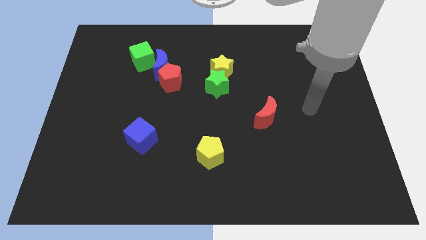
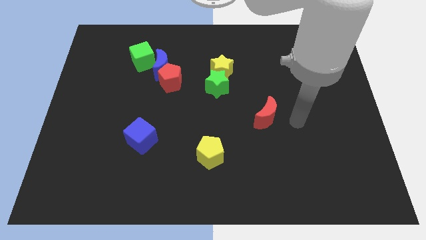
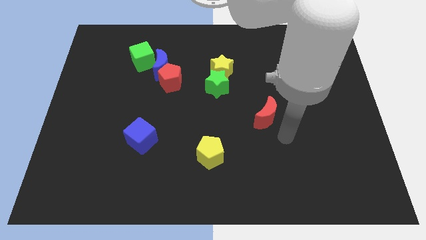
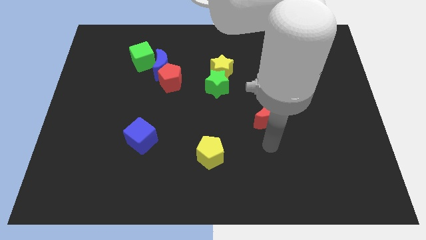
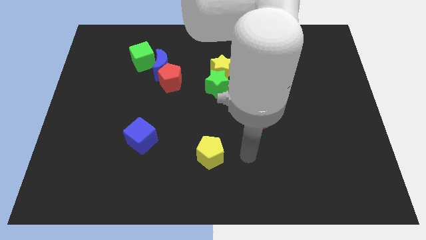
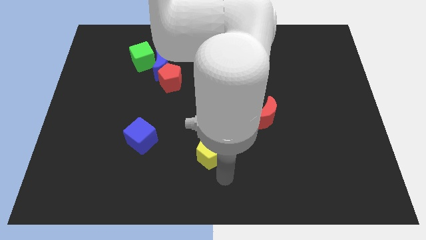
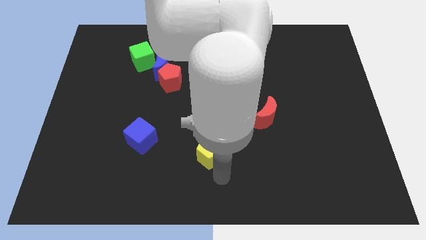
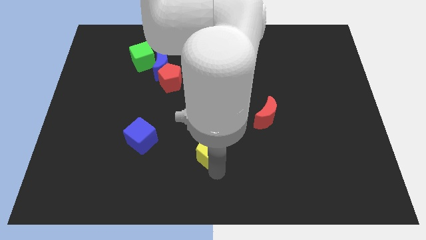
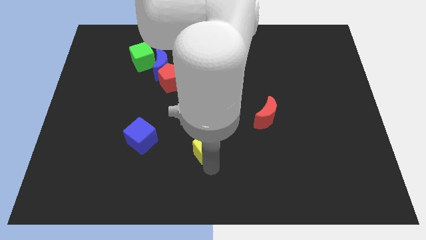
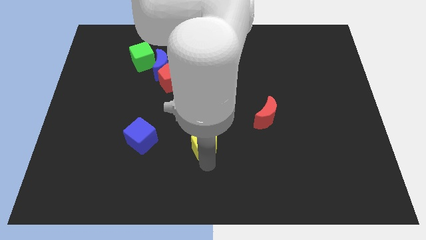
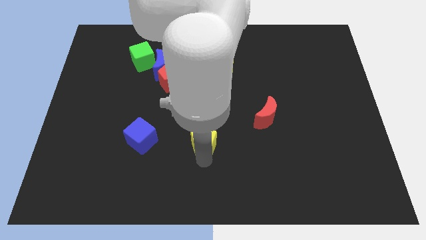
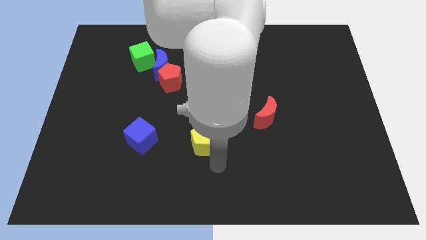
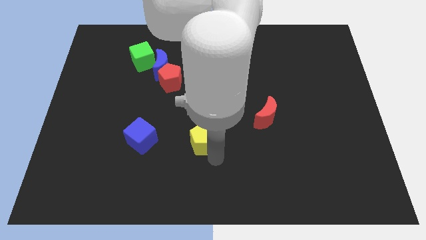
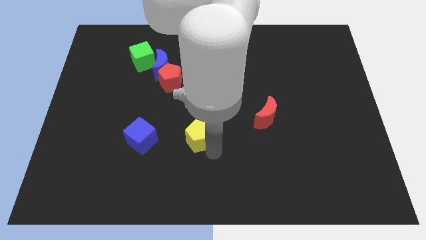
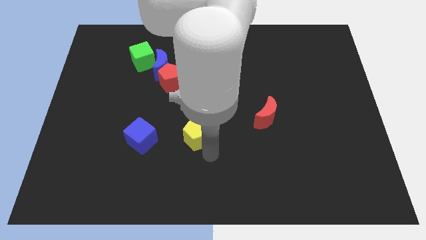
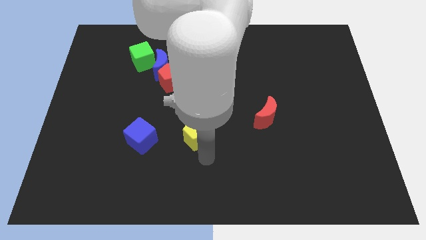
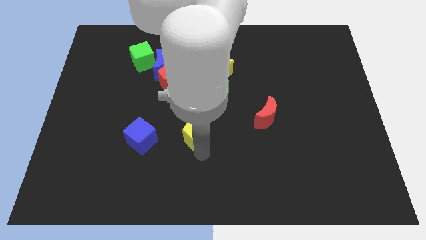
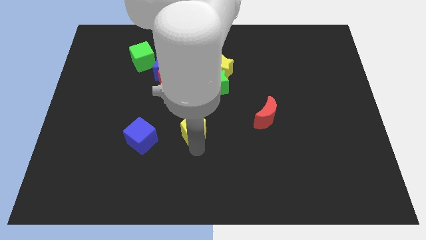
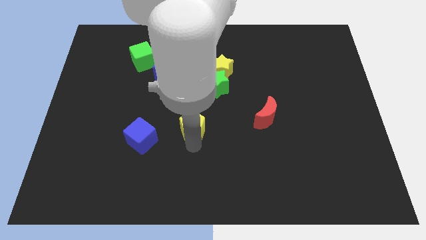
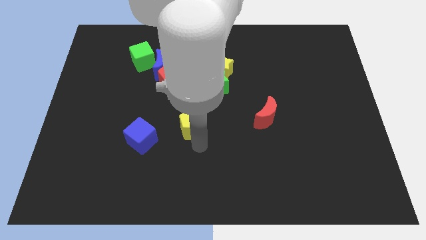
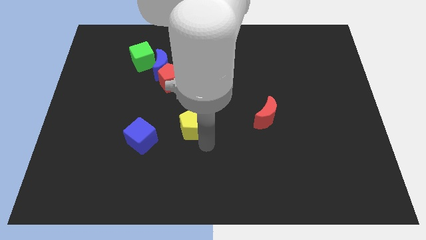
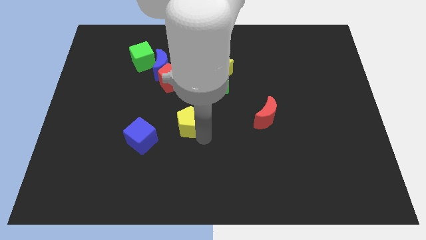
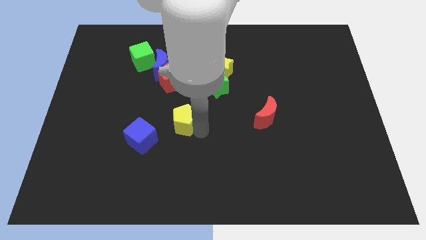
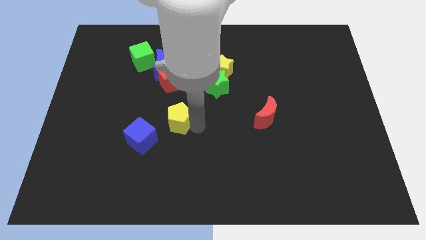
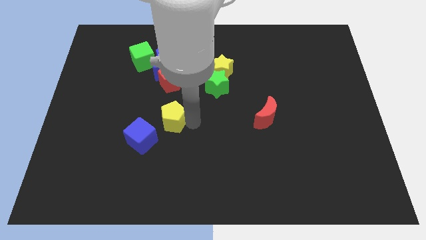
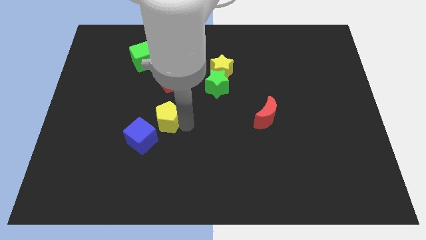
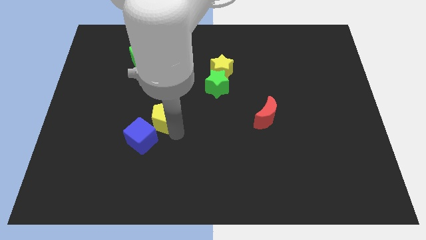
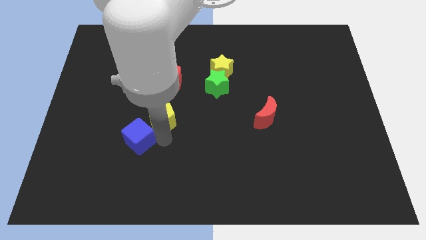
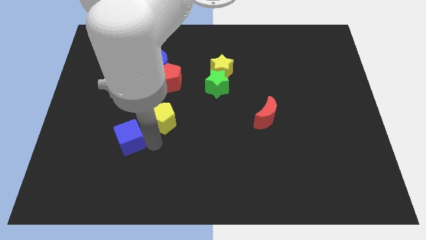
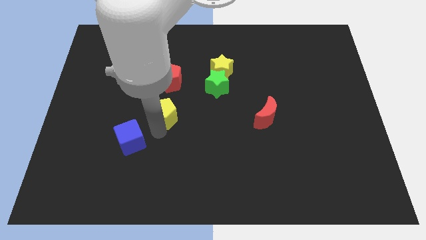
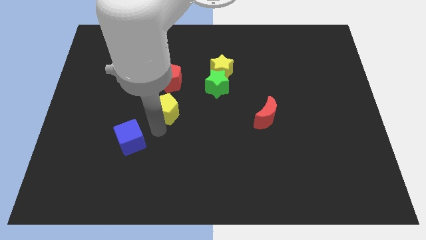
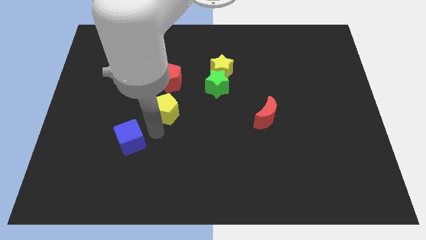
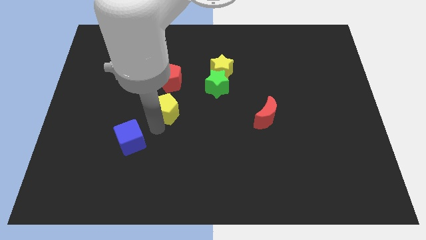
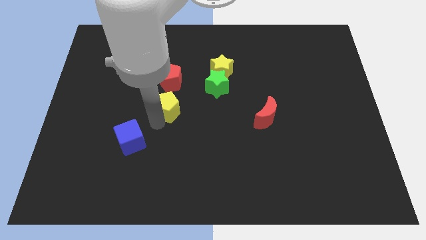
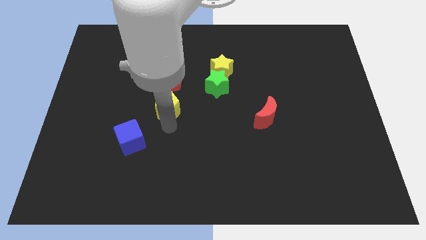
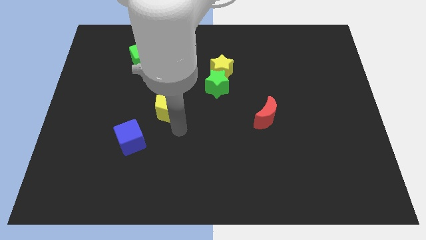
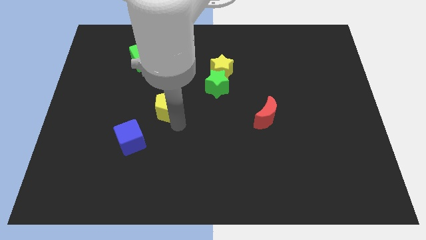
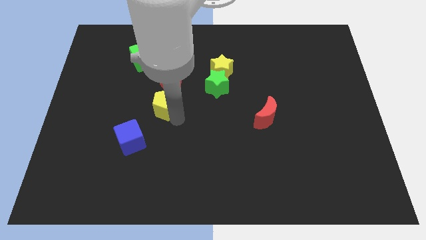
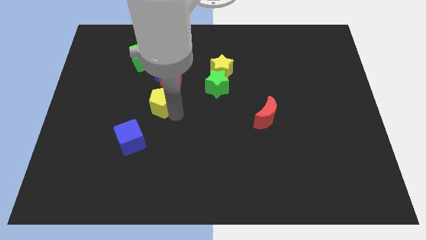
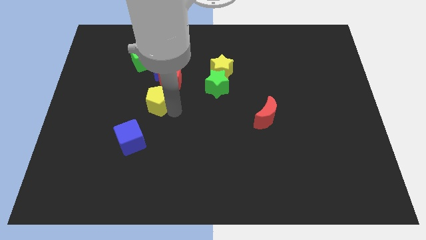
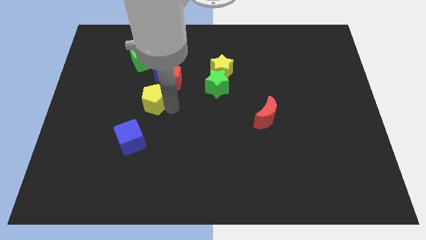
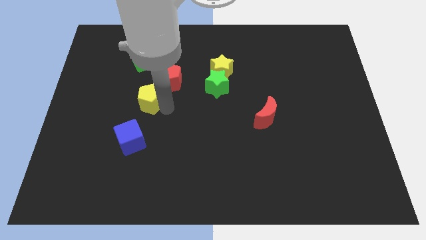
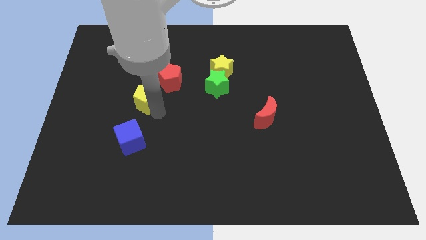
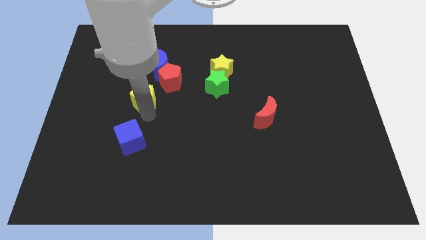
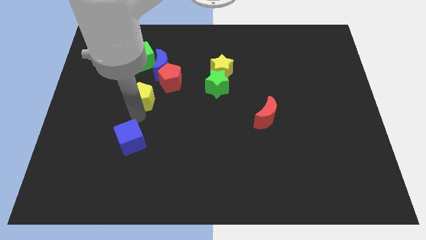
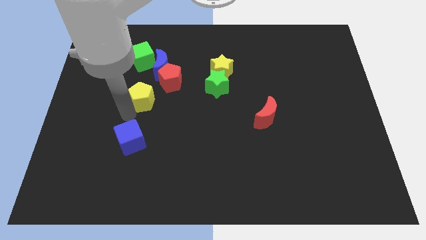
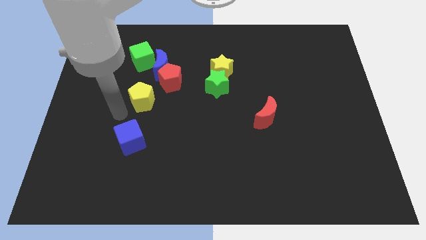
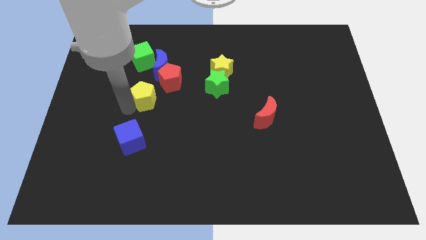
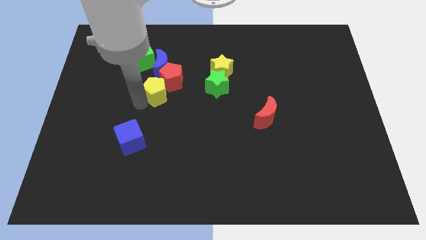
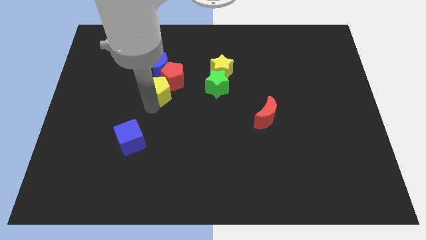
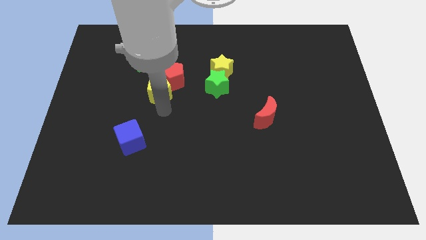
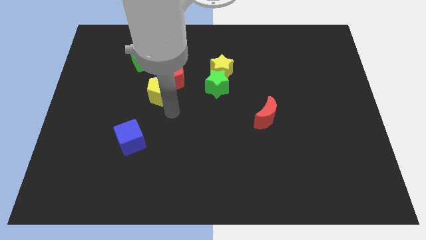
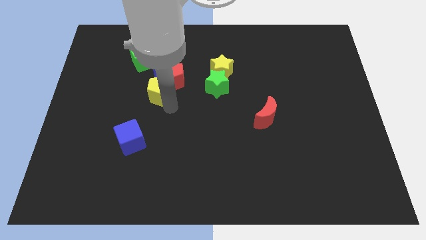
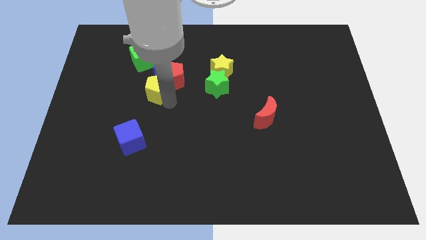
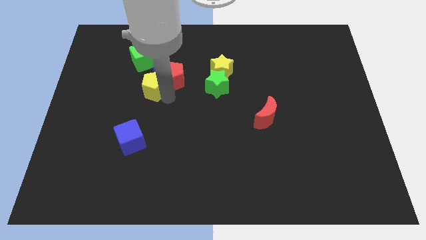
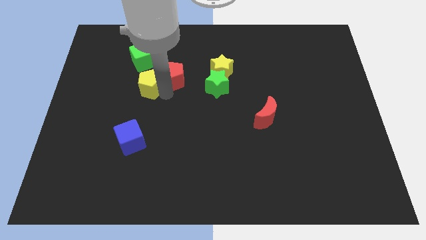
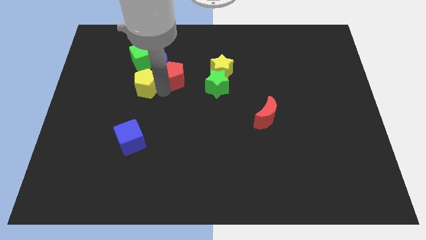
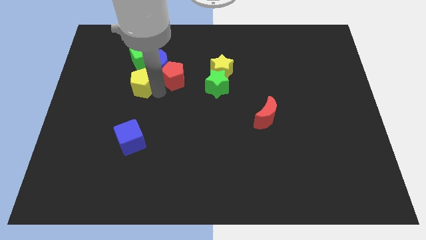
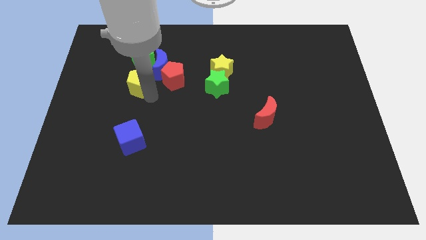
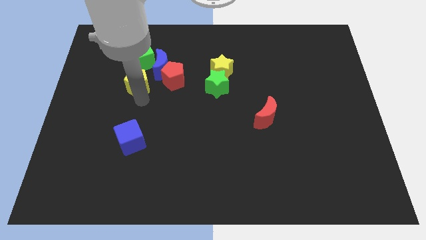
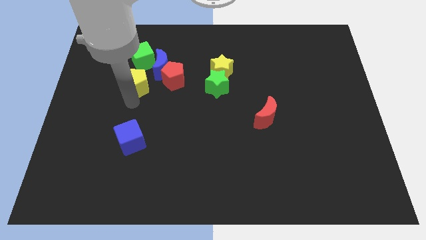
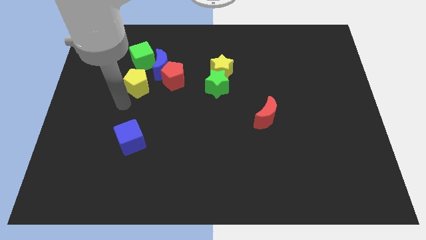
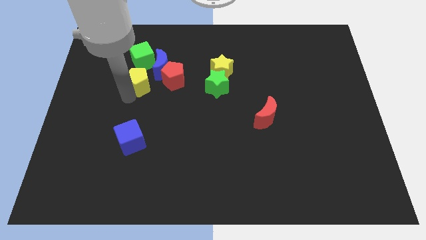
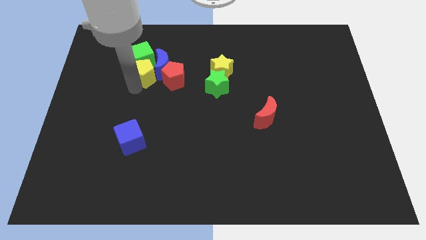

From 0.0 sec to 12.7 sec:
push the yellow pentagon next to the blue moon
